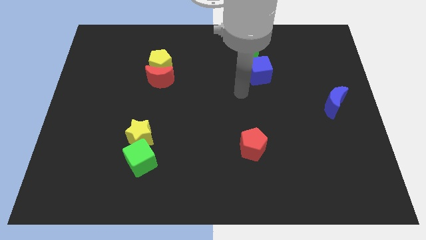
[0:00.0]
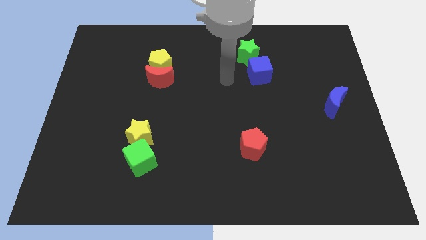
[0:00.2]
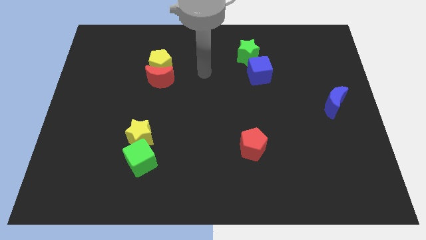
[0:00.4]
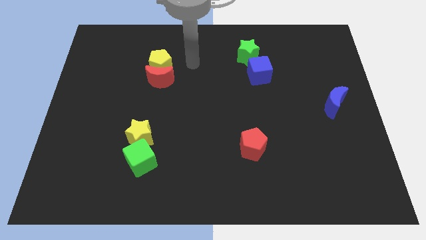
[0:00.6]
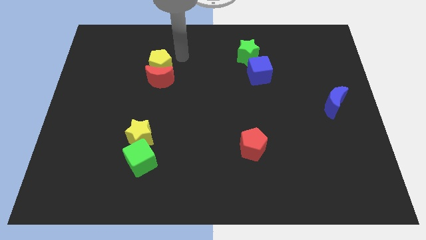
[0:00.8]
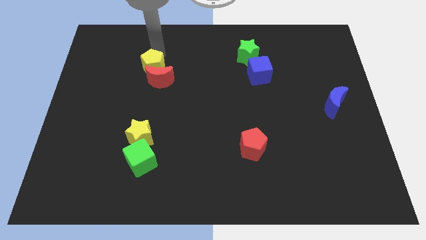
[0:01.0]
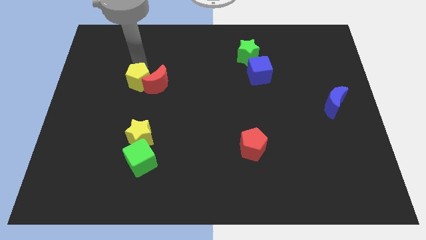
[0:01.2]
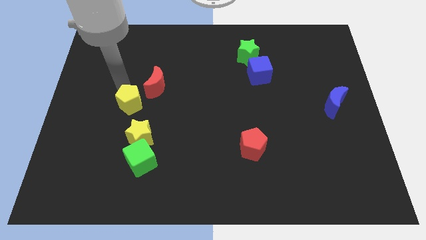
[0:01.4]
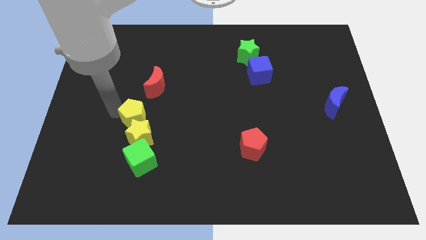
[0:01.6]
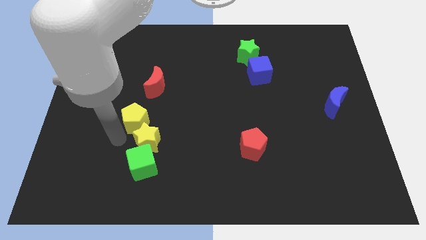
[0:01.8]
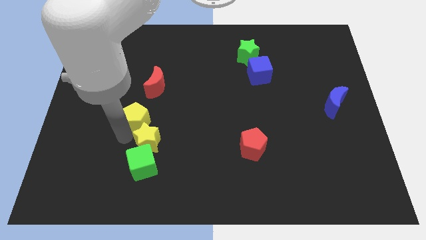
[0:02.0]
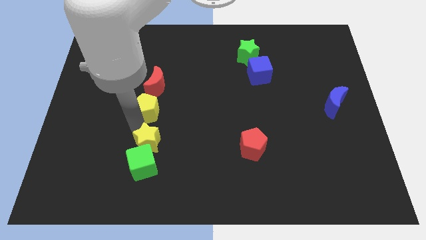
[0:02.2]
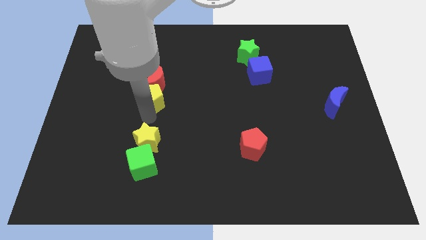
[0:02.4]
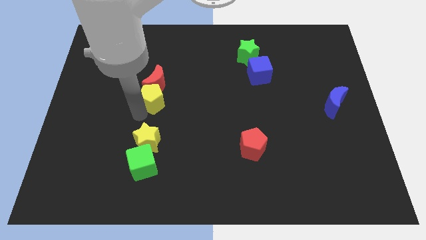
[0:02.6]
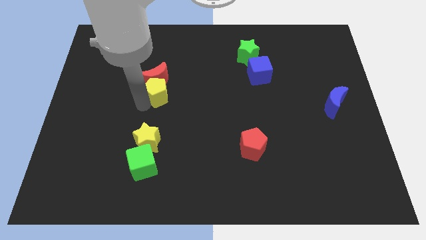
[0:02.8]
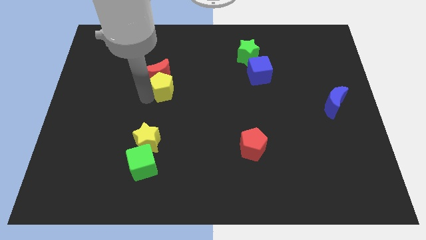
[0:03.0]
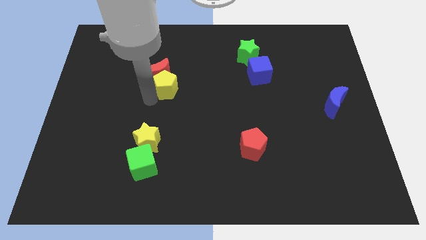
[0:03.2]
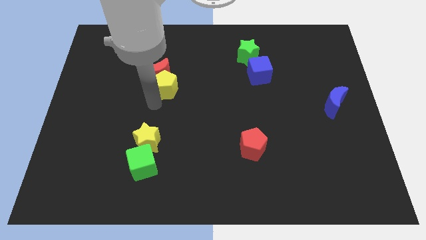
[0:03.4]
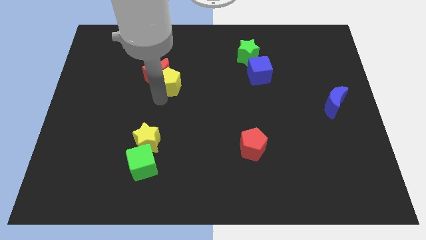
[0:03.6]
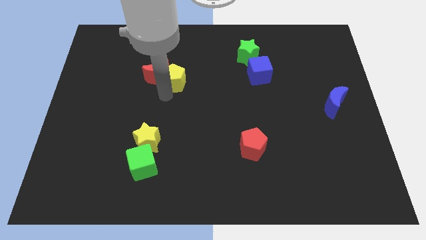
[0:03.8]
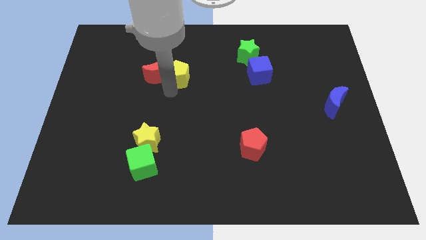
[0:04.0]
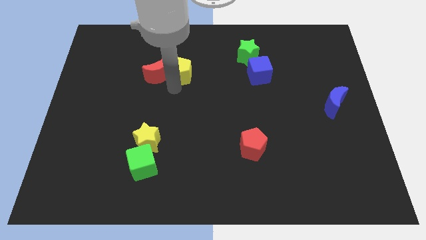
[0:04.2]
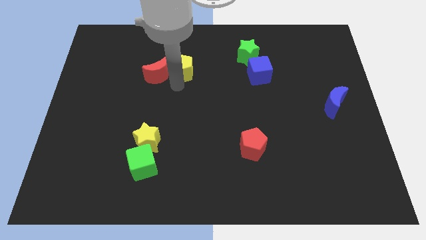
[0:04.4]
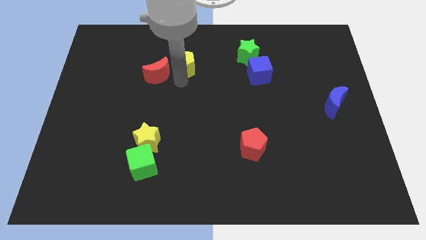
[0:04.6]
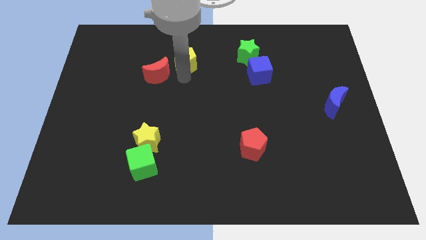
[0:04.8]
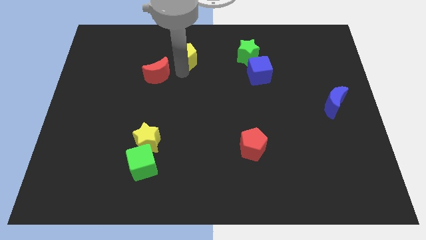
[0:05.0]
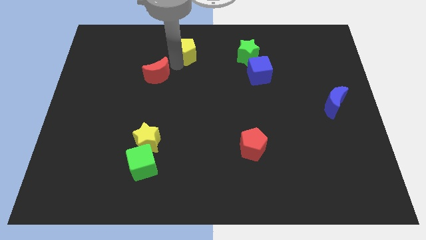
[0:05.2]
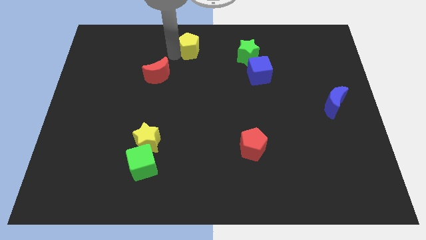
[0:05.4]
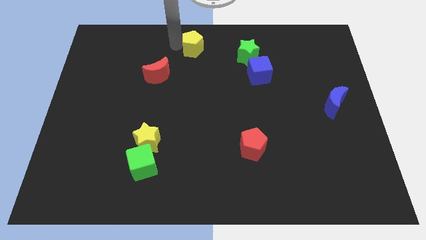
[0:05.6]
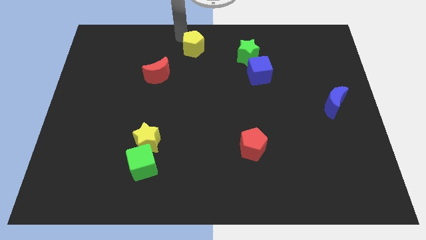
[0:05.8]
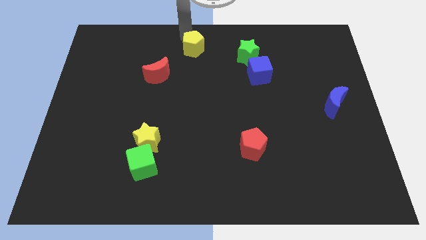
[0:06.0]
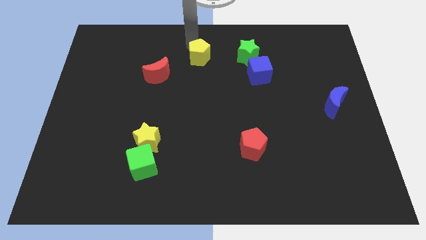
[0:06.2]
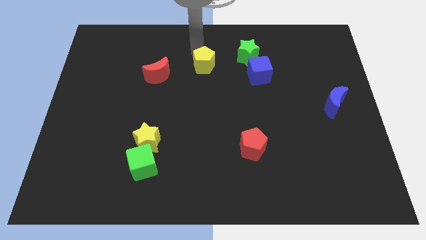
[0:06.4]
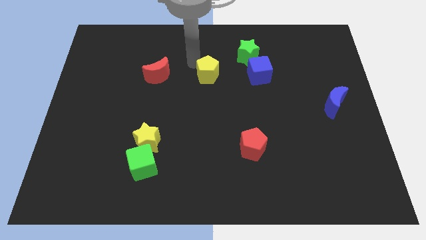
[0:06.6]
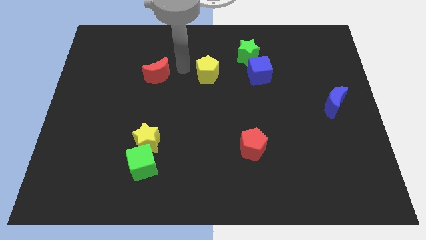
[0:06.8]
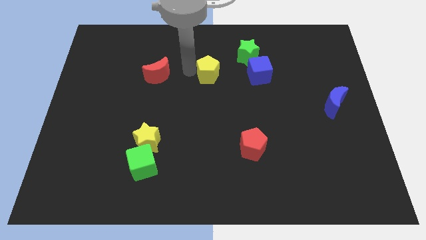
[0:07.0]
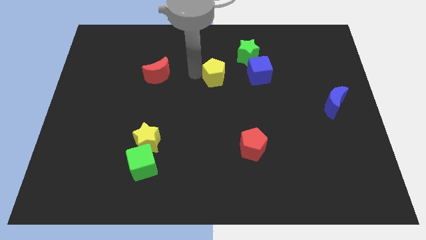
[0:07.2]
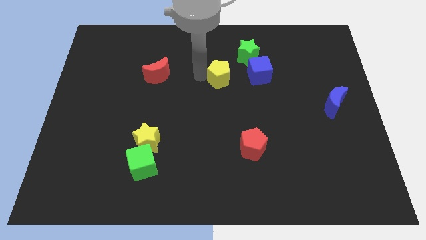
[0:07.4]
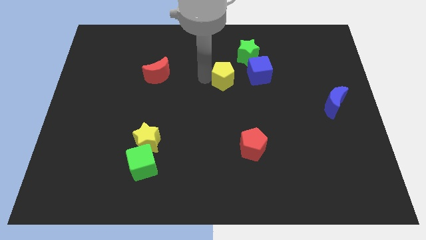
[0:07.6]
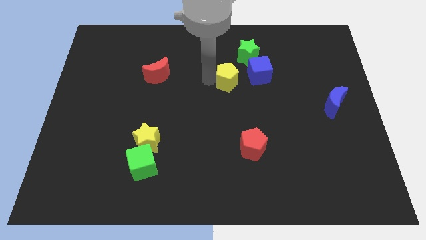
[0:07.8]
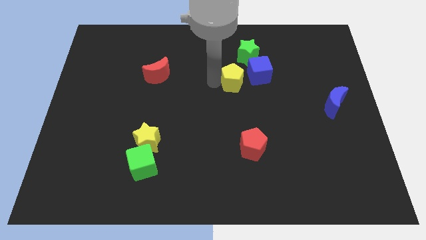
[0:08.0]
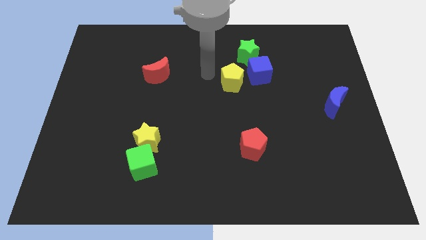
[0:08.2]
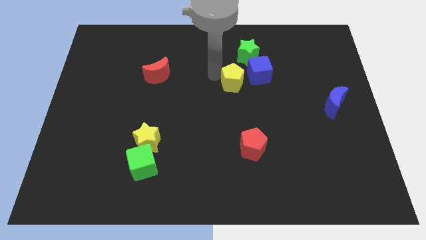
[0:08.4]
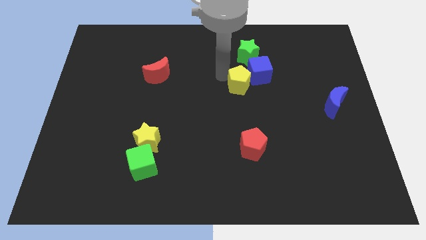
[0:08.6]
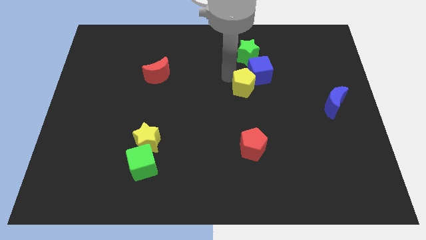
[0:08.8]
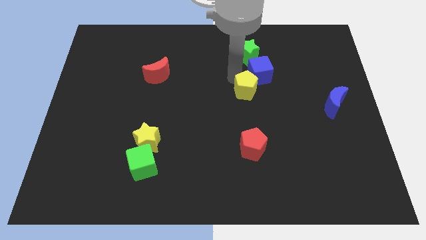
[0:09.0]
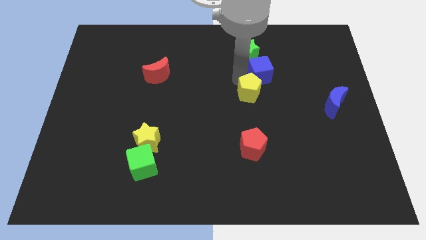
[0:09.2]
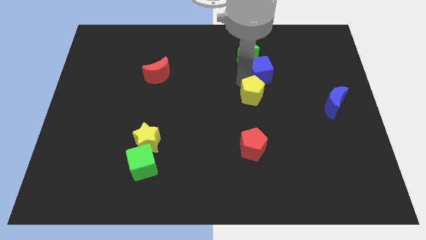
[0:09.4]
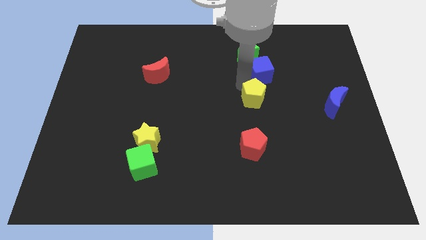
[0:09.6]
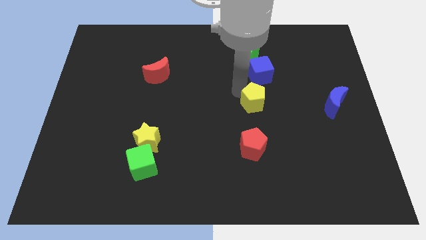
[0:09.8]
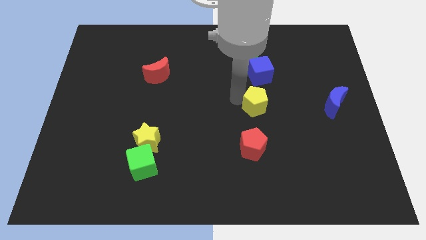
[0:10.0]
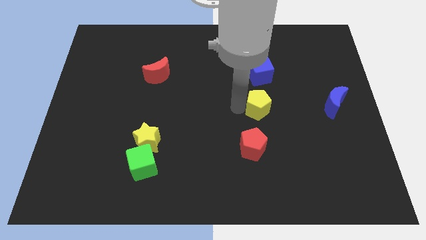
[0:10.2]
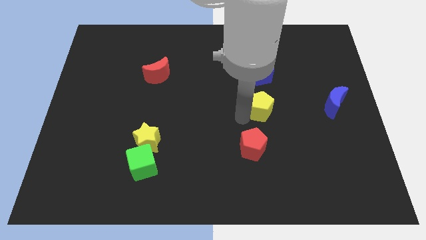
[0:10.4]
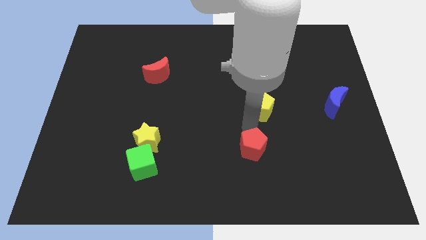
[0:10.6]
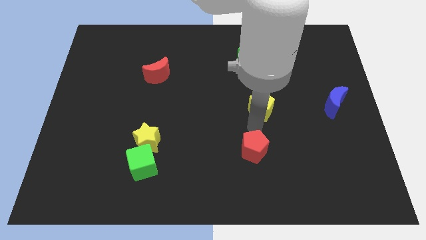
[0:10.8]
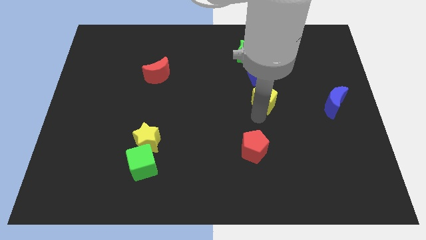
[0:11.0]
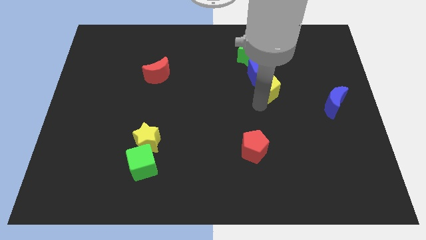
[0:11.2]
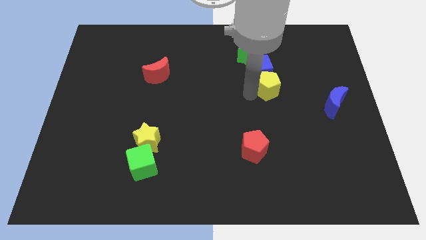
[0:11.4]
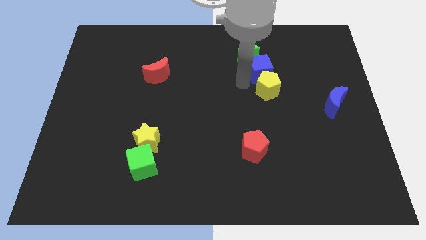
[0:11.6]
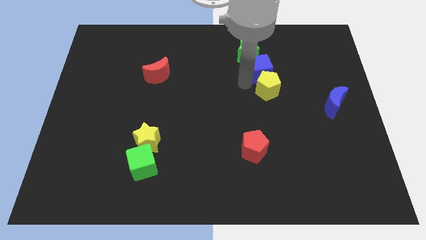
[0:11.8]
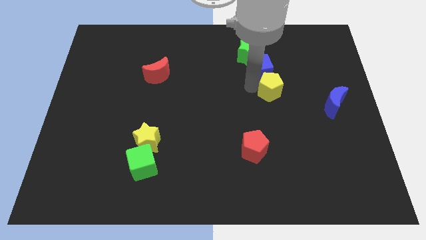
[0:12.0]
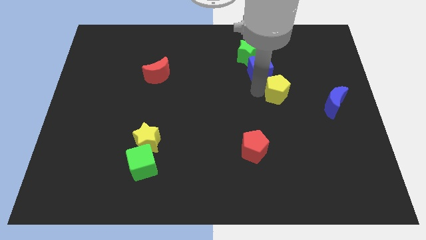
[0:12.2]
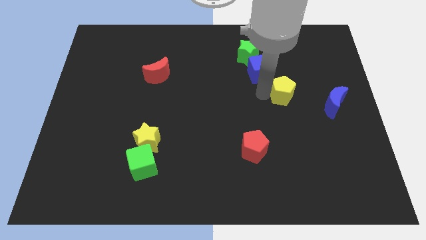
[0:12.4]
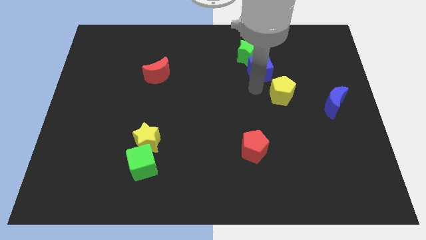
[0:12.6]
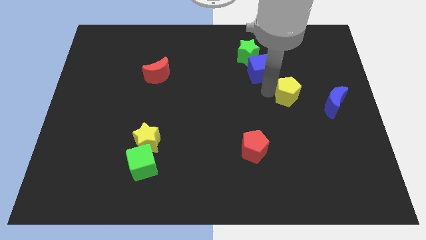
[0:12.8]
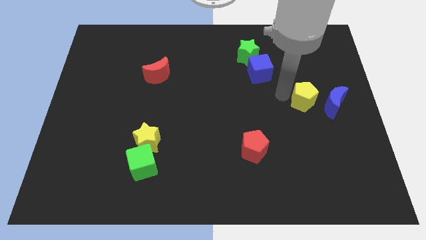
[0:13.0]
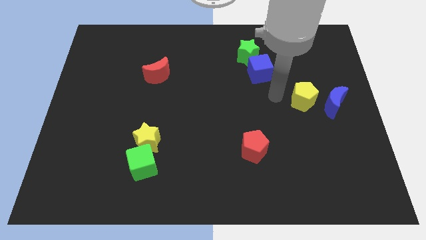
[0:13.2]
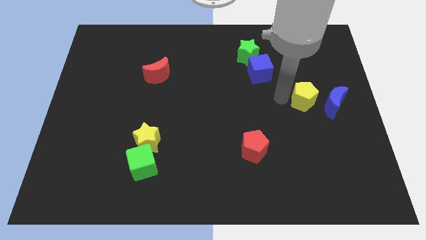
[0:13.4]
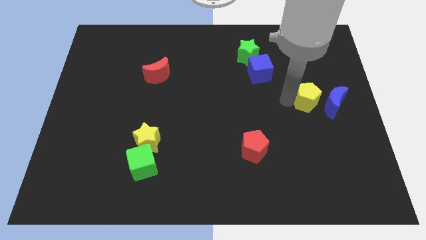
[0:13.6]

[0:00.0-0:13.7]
push the yellow pentagon next to the blue moon
